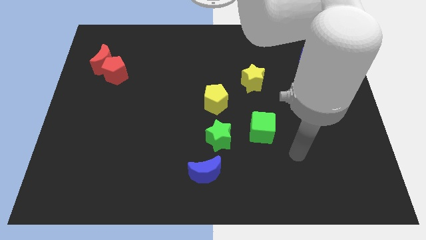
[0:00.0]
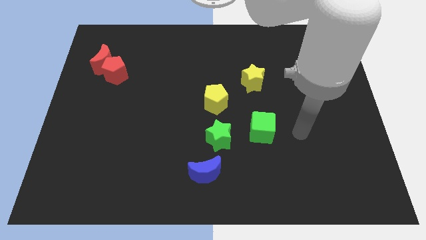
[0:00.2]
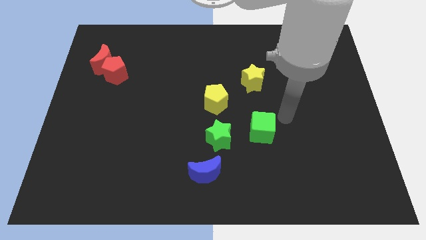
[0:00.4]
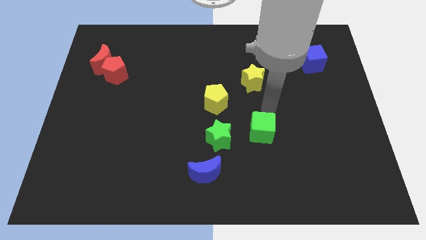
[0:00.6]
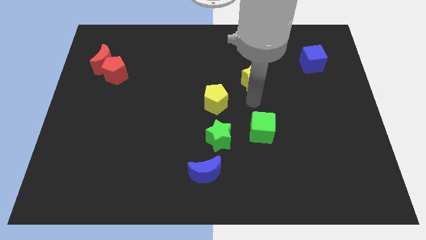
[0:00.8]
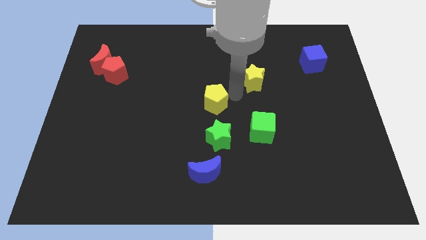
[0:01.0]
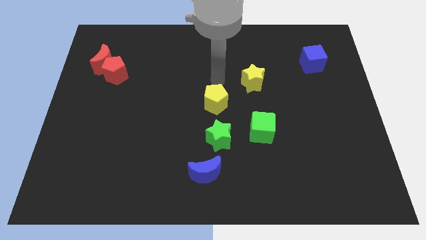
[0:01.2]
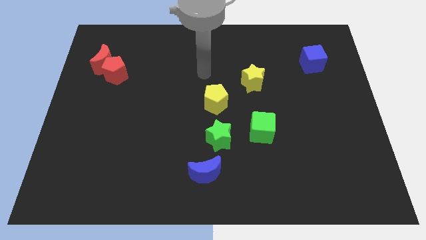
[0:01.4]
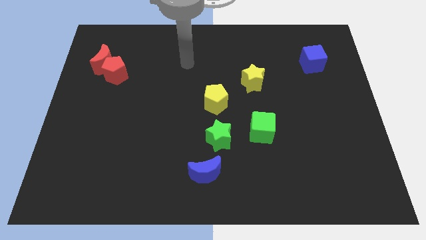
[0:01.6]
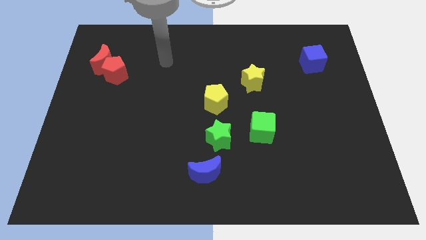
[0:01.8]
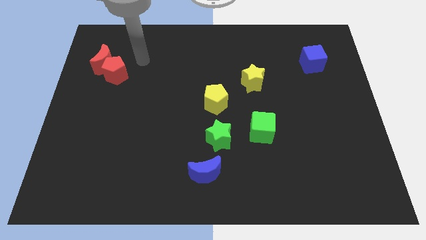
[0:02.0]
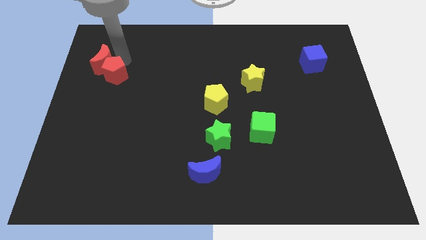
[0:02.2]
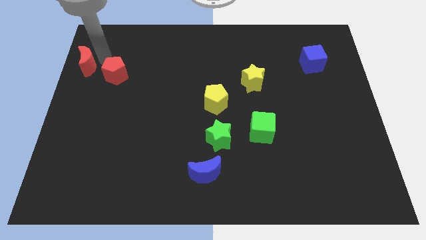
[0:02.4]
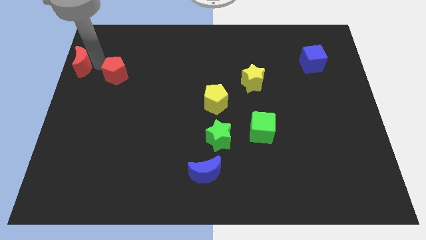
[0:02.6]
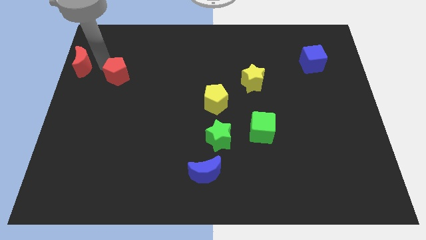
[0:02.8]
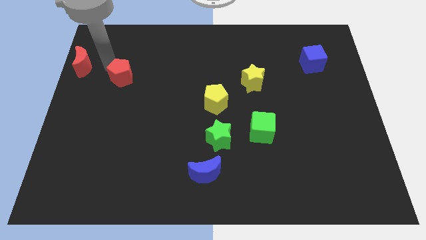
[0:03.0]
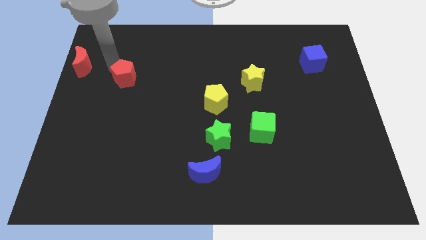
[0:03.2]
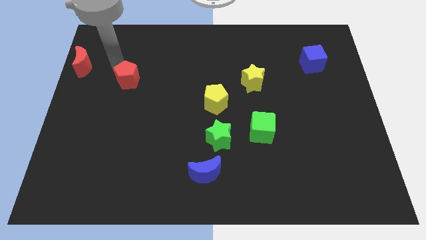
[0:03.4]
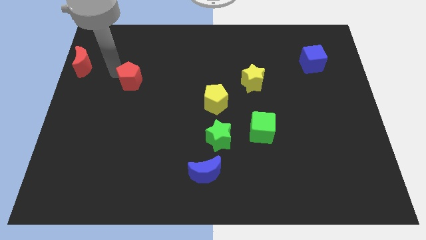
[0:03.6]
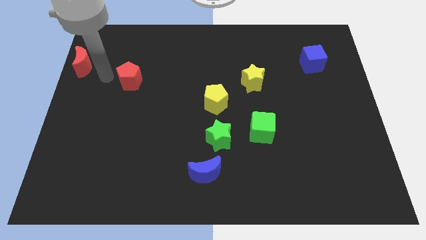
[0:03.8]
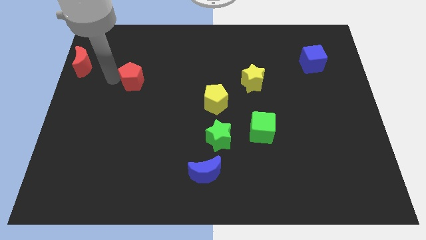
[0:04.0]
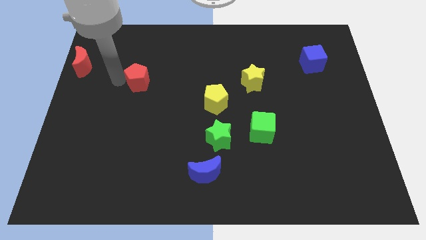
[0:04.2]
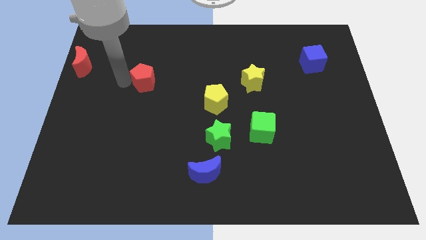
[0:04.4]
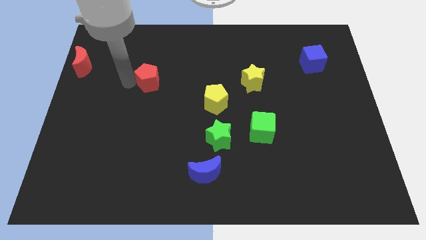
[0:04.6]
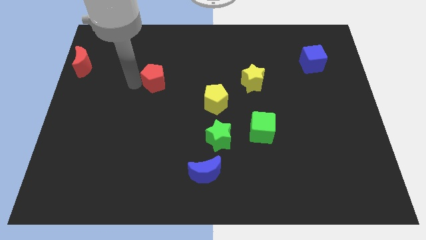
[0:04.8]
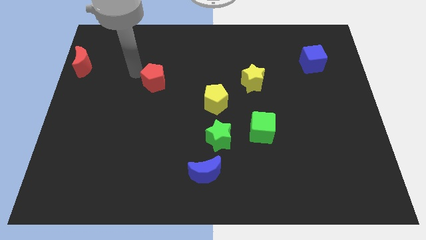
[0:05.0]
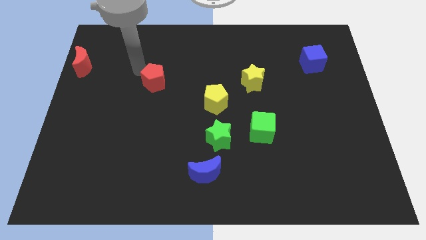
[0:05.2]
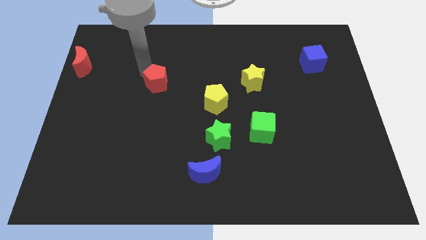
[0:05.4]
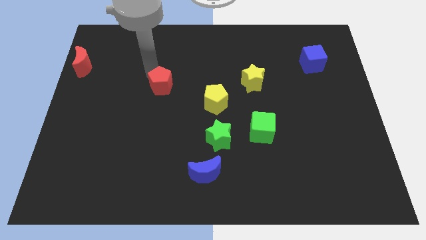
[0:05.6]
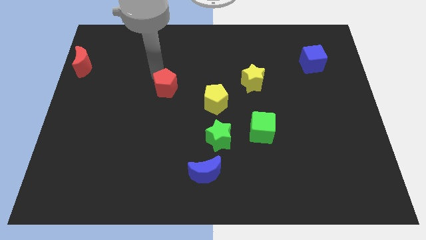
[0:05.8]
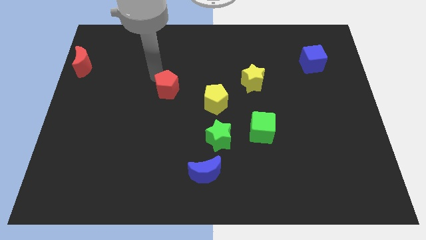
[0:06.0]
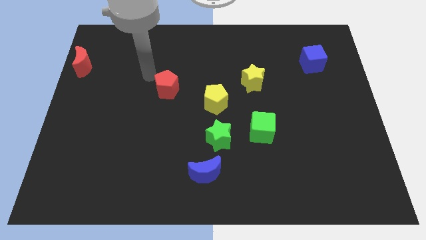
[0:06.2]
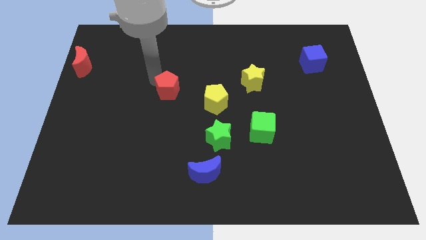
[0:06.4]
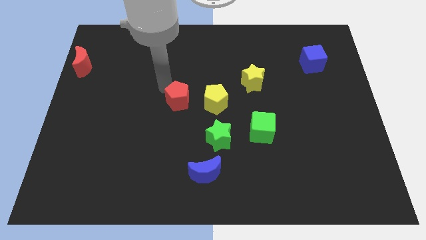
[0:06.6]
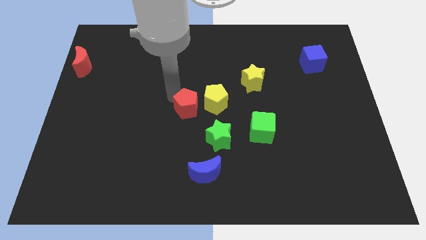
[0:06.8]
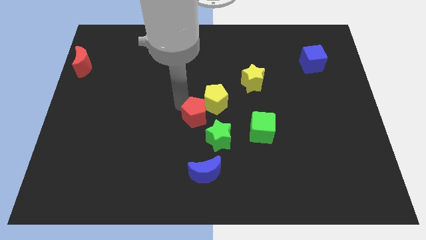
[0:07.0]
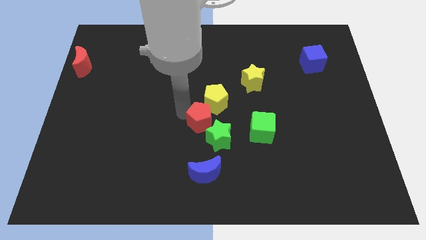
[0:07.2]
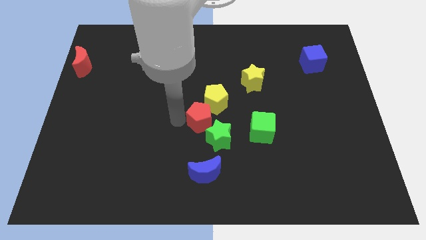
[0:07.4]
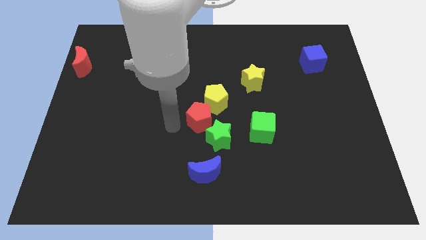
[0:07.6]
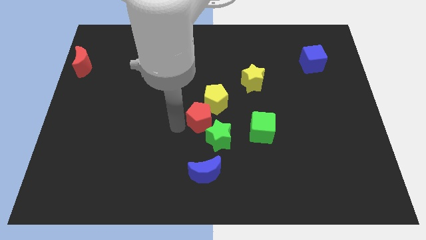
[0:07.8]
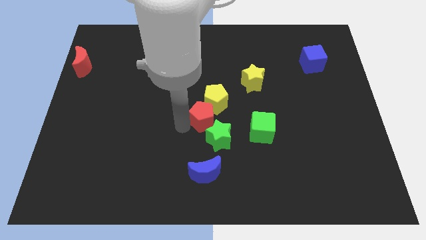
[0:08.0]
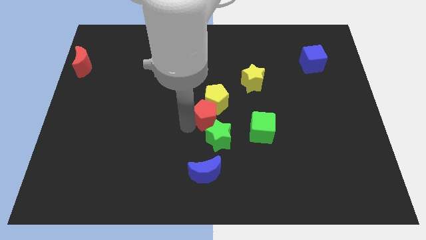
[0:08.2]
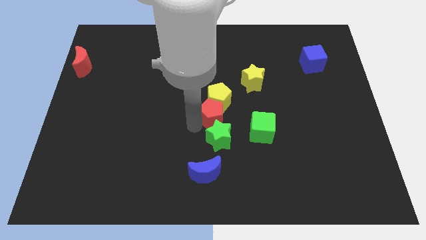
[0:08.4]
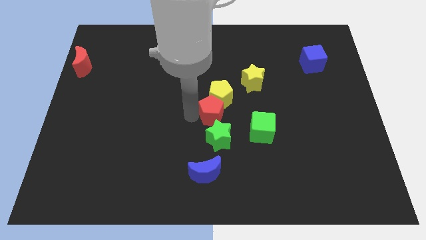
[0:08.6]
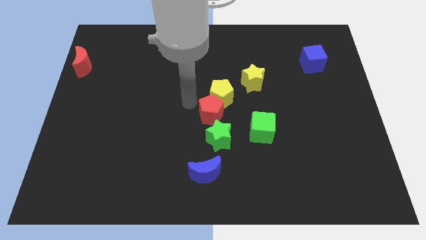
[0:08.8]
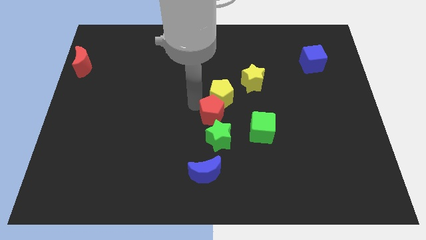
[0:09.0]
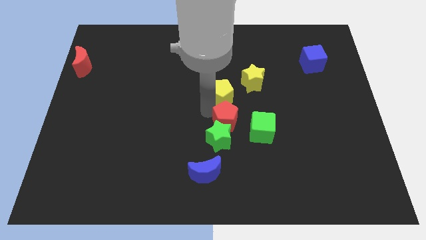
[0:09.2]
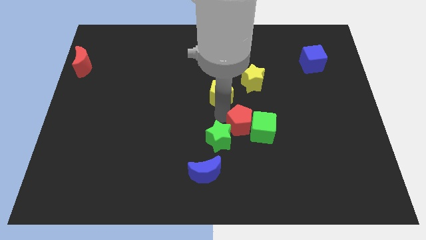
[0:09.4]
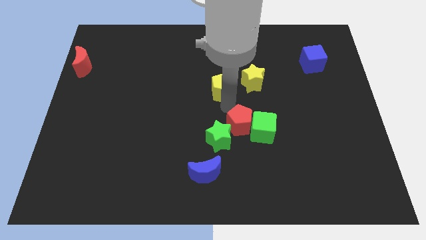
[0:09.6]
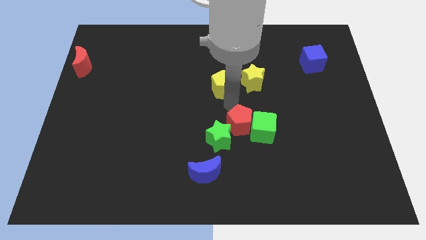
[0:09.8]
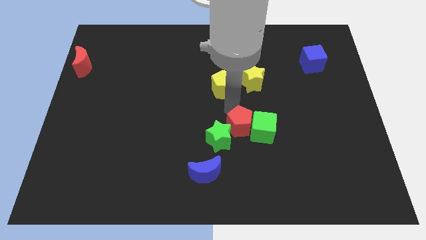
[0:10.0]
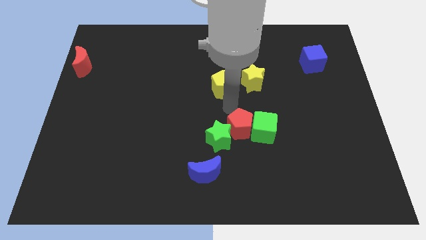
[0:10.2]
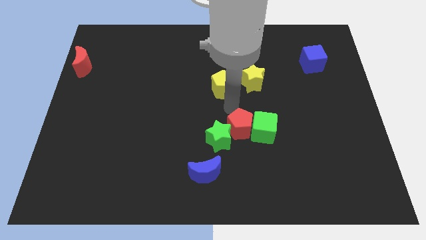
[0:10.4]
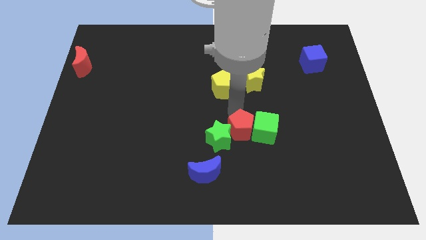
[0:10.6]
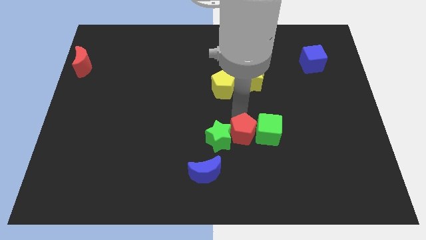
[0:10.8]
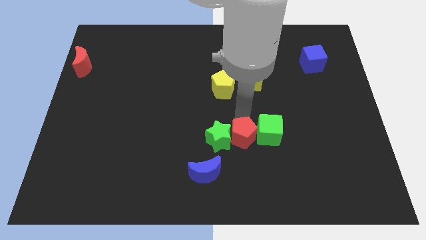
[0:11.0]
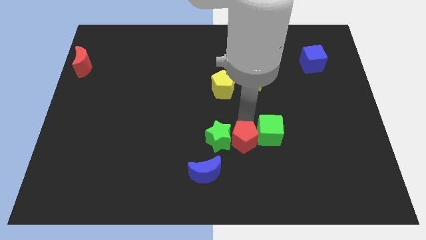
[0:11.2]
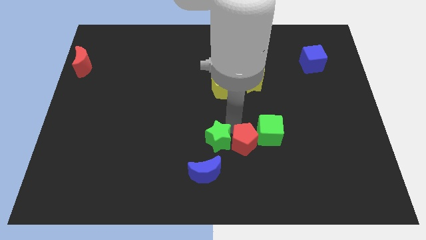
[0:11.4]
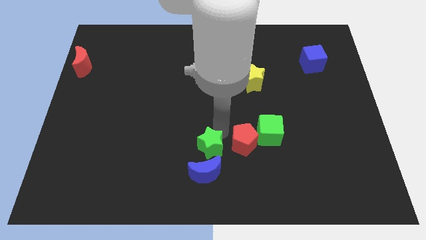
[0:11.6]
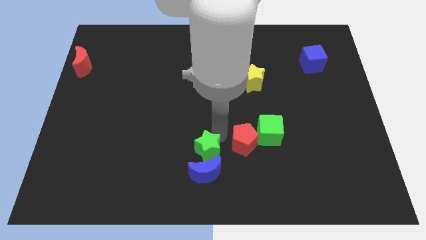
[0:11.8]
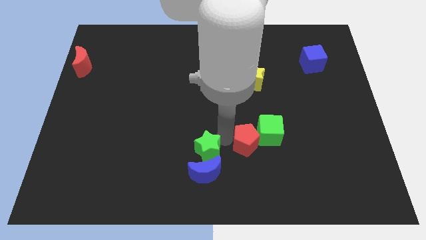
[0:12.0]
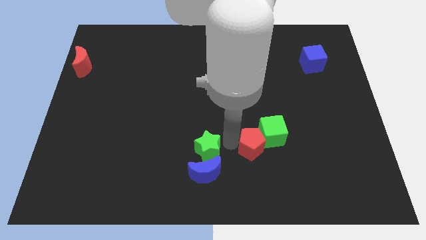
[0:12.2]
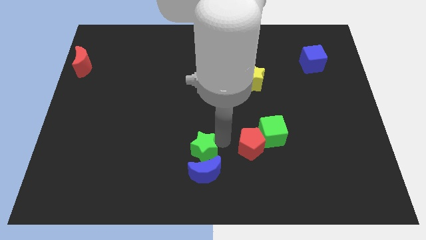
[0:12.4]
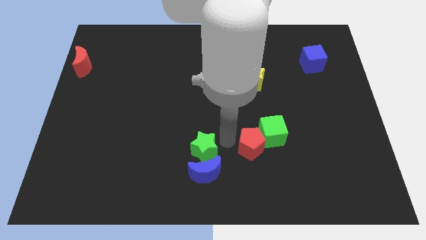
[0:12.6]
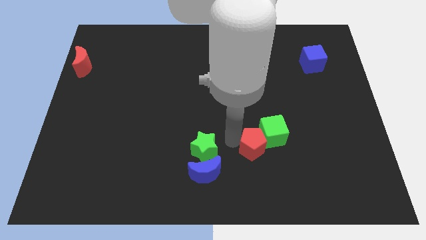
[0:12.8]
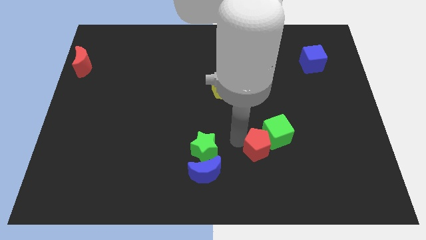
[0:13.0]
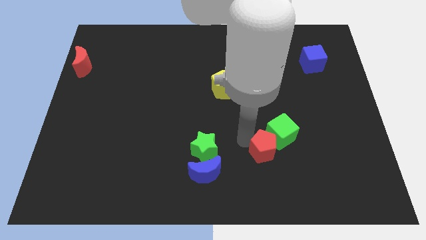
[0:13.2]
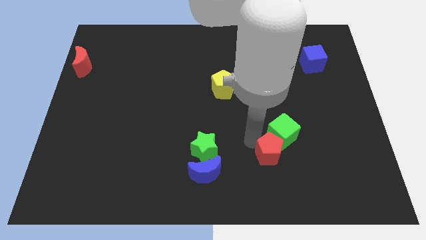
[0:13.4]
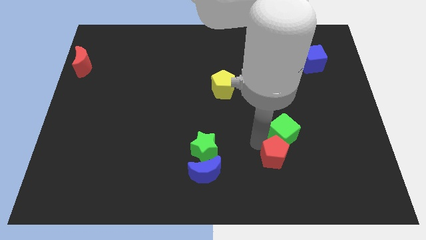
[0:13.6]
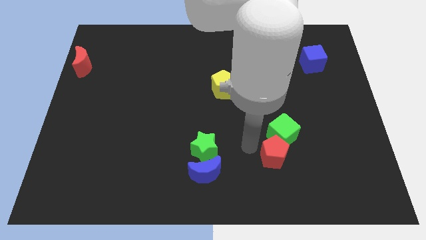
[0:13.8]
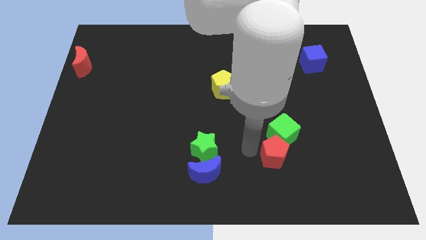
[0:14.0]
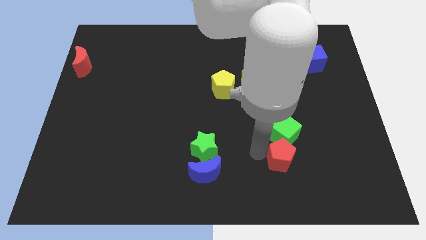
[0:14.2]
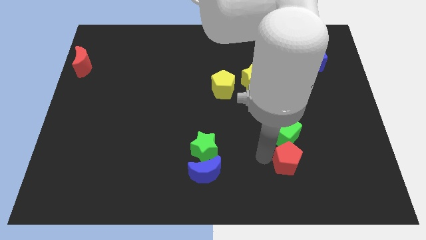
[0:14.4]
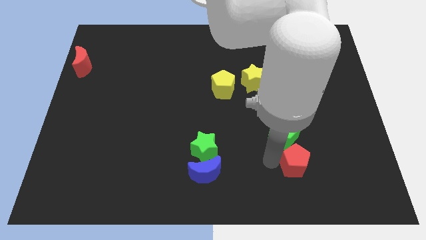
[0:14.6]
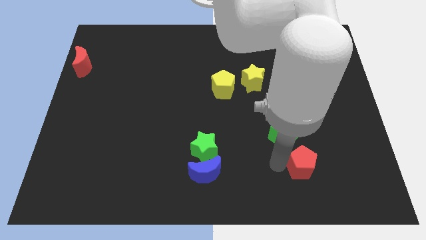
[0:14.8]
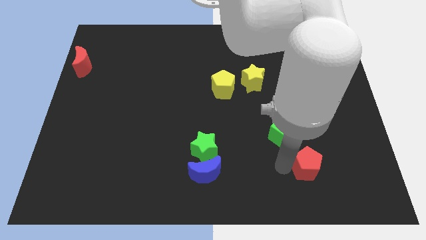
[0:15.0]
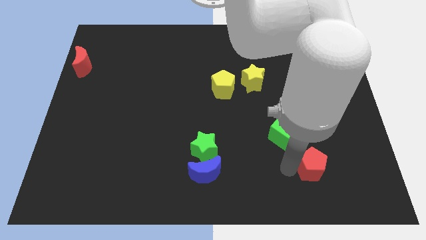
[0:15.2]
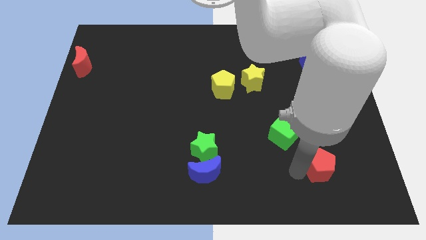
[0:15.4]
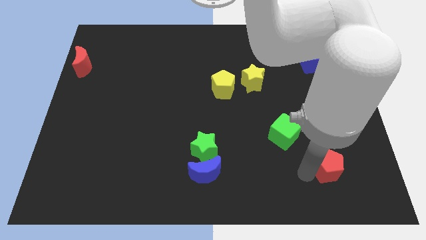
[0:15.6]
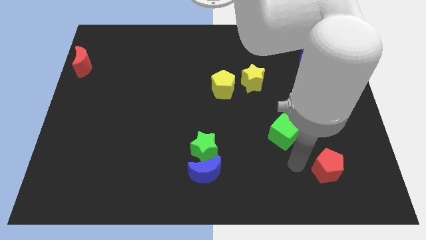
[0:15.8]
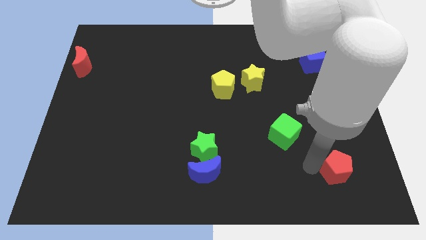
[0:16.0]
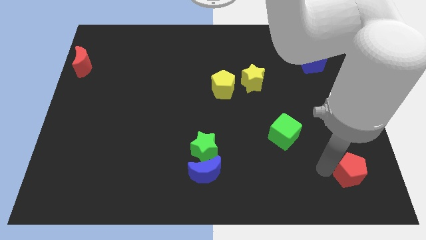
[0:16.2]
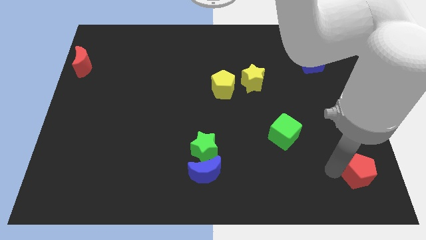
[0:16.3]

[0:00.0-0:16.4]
move the red pentagon to the bottom right
